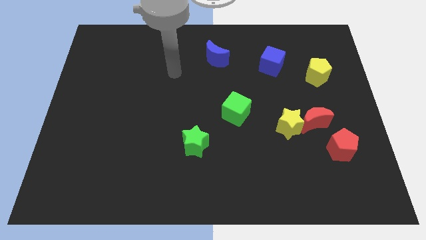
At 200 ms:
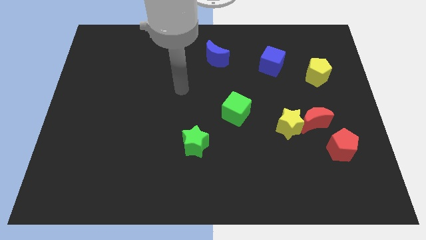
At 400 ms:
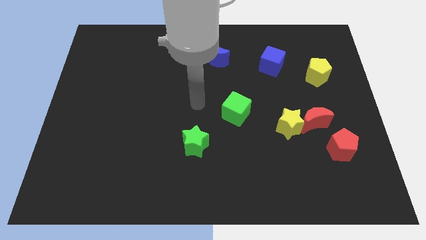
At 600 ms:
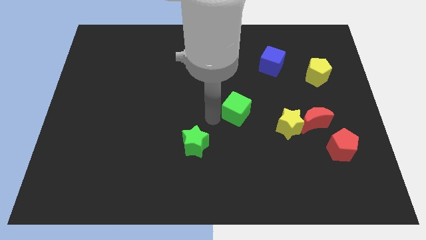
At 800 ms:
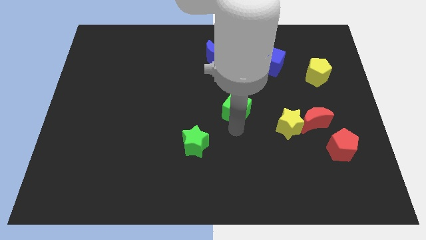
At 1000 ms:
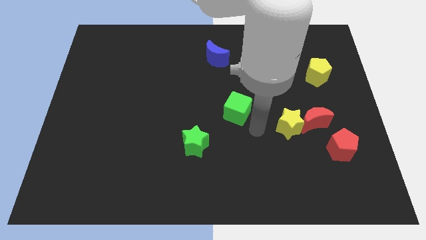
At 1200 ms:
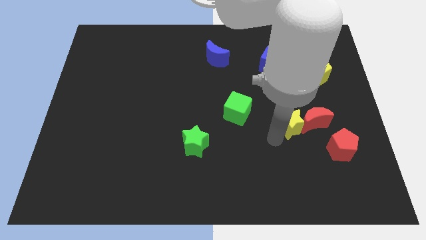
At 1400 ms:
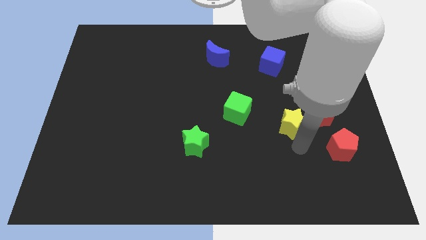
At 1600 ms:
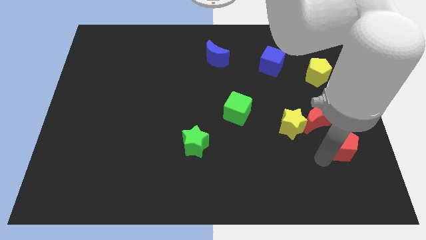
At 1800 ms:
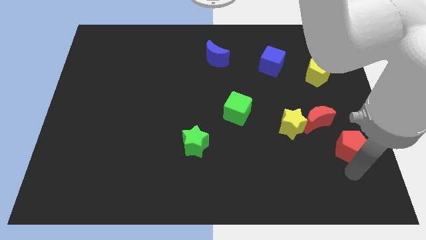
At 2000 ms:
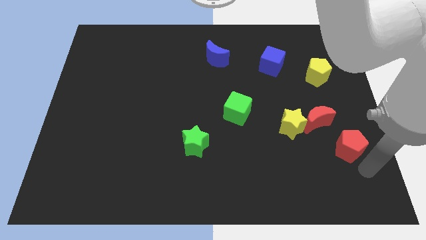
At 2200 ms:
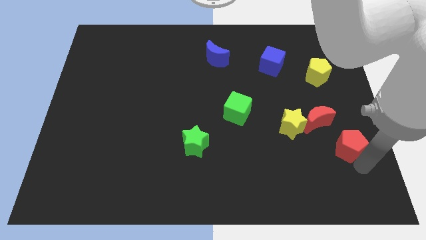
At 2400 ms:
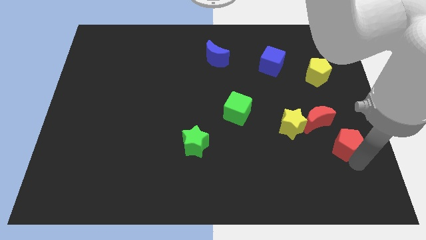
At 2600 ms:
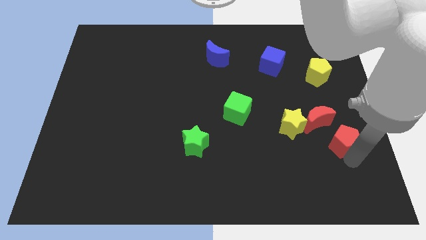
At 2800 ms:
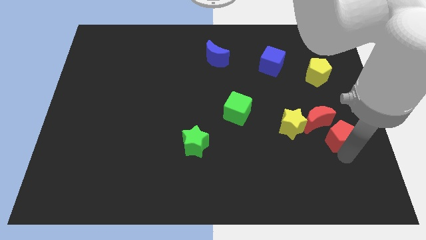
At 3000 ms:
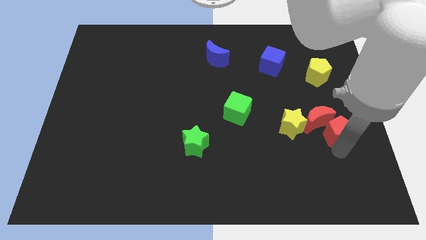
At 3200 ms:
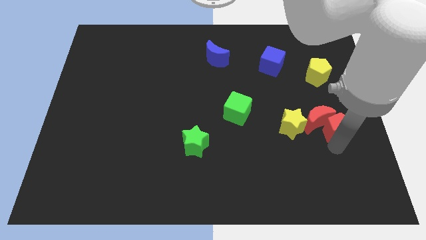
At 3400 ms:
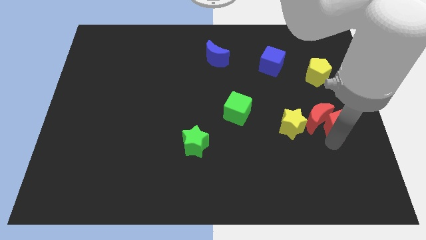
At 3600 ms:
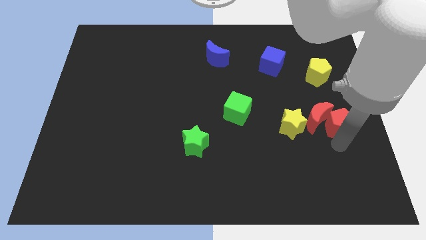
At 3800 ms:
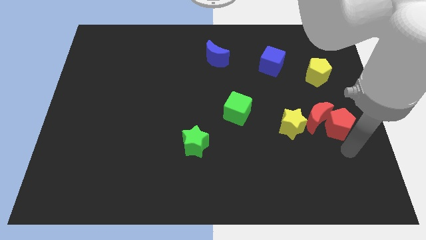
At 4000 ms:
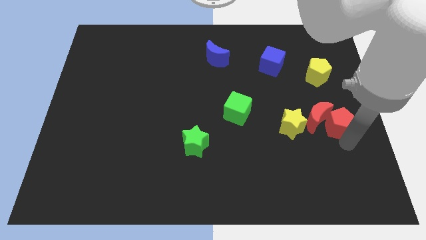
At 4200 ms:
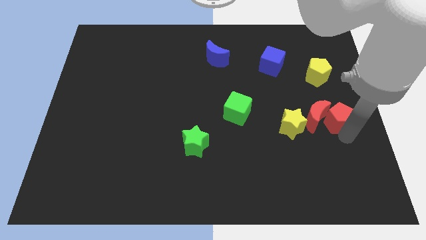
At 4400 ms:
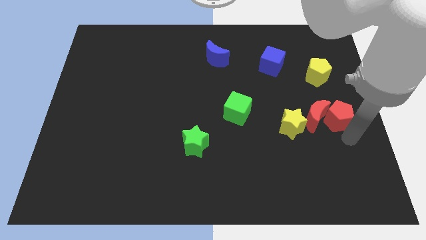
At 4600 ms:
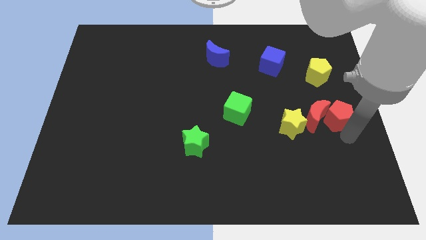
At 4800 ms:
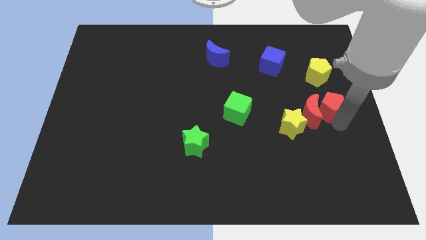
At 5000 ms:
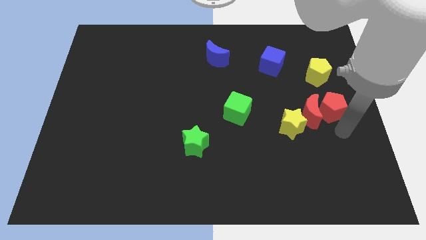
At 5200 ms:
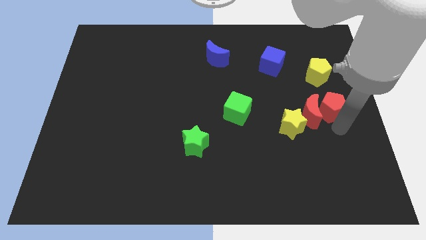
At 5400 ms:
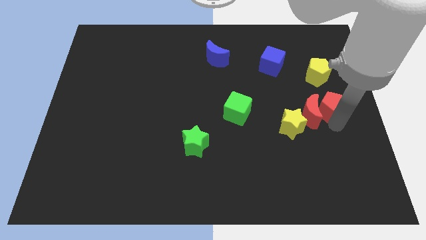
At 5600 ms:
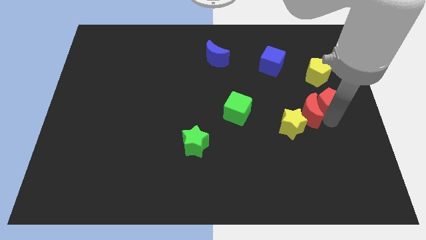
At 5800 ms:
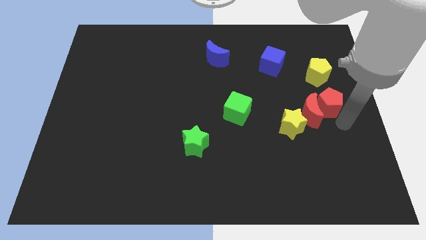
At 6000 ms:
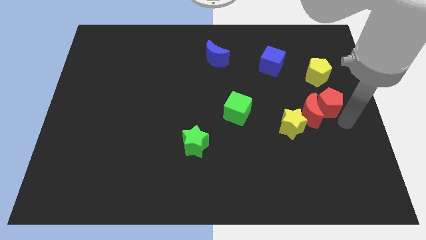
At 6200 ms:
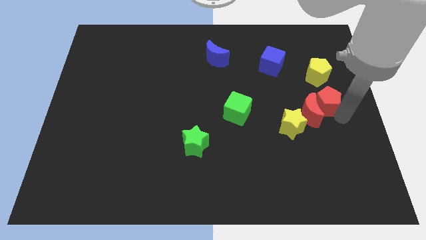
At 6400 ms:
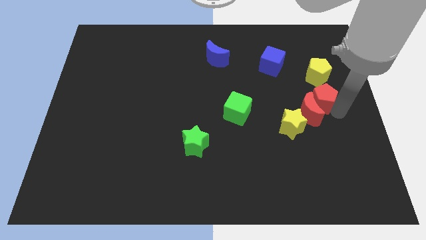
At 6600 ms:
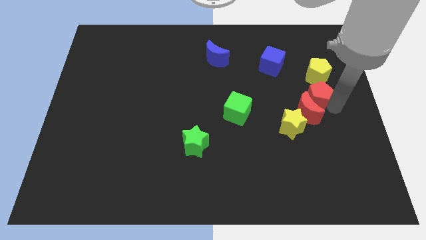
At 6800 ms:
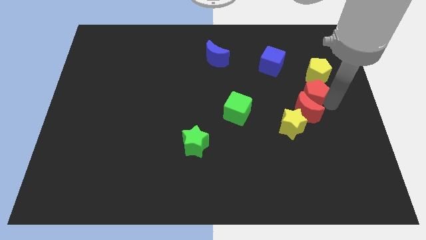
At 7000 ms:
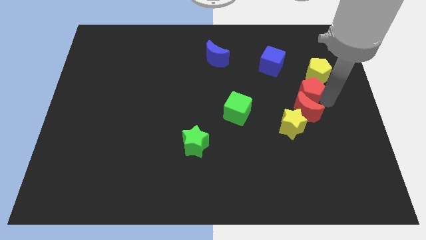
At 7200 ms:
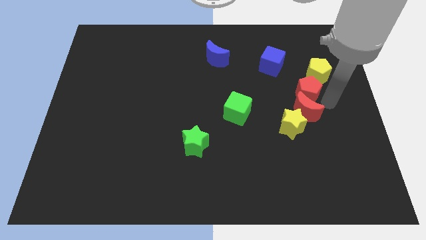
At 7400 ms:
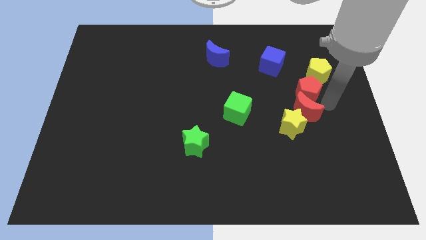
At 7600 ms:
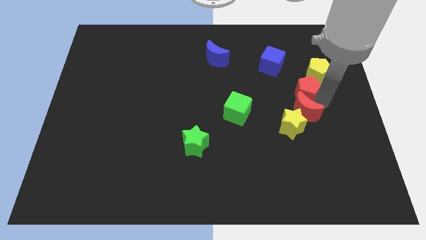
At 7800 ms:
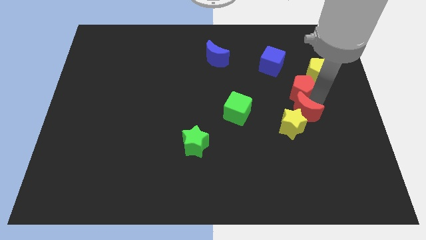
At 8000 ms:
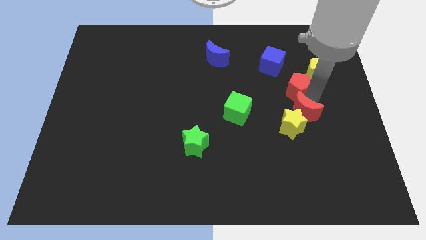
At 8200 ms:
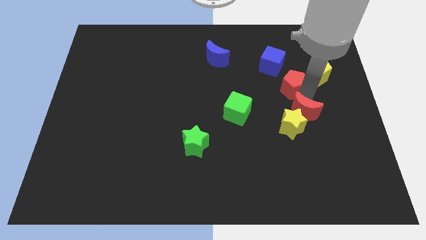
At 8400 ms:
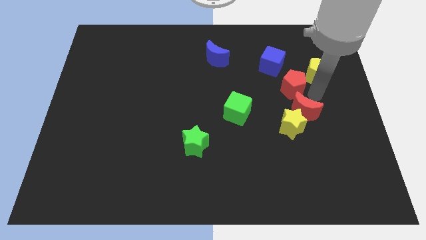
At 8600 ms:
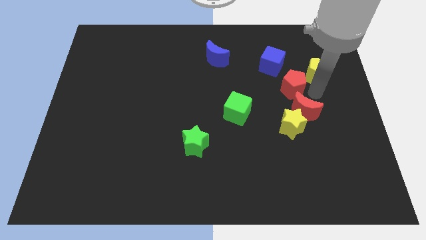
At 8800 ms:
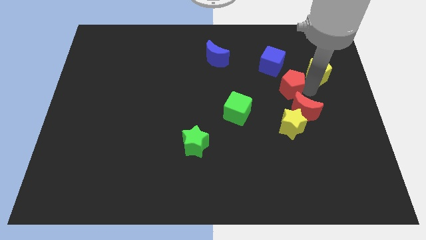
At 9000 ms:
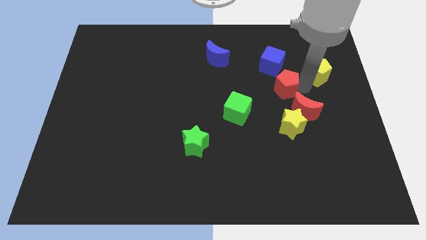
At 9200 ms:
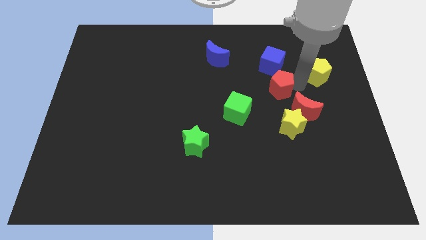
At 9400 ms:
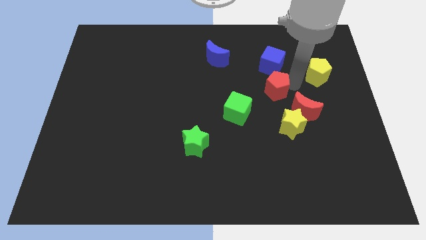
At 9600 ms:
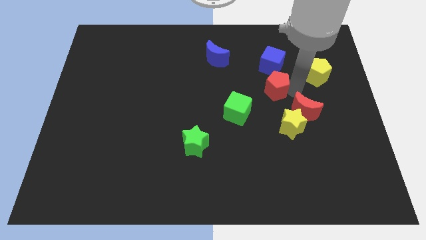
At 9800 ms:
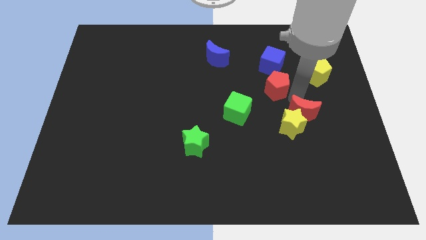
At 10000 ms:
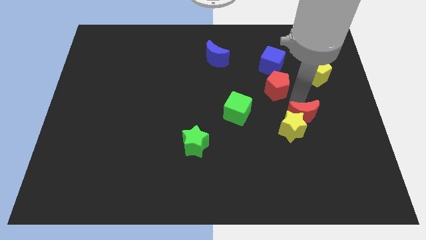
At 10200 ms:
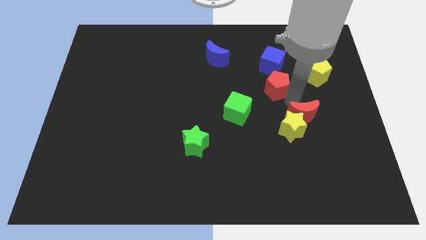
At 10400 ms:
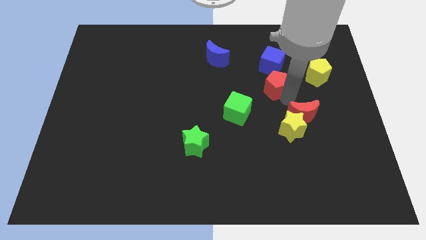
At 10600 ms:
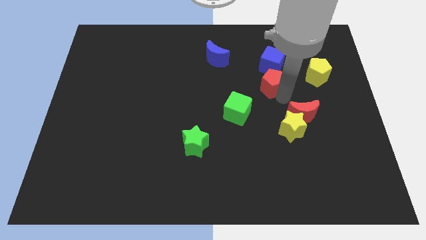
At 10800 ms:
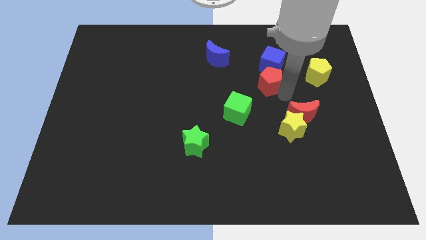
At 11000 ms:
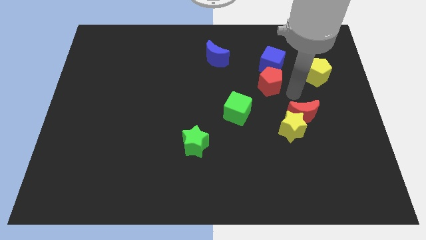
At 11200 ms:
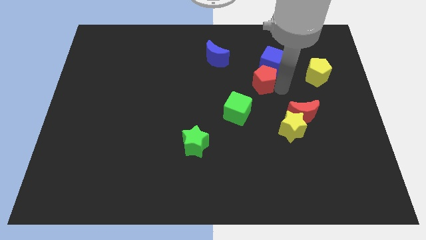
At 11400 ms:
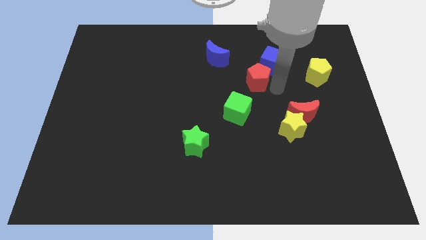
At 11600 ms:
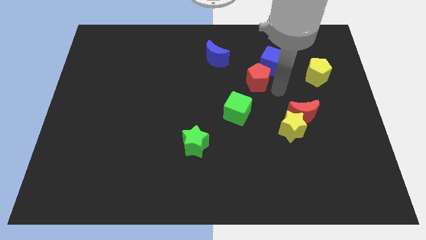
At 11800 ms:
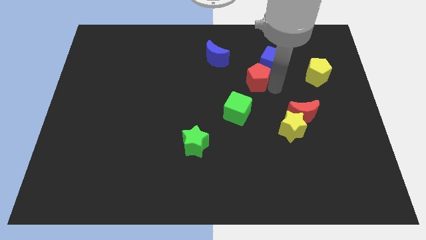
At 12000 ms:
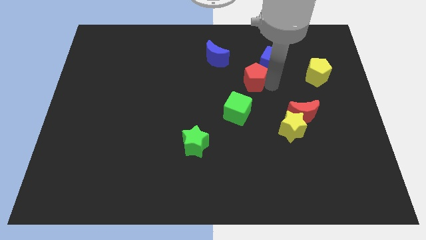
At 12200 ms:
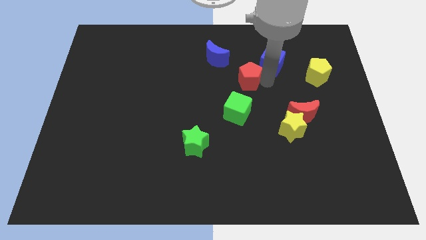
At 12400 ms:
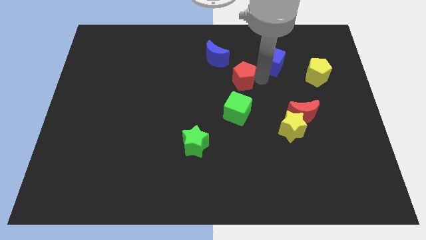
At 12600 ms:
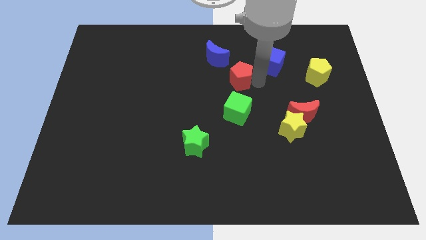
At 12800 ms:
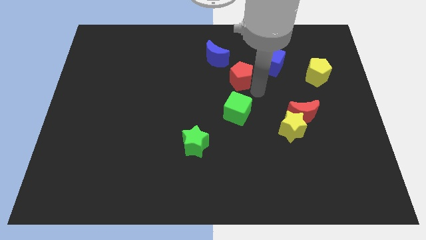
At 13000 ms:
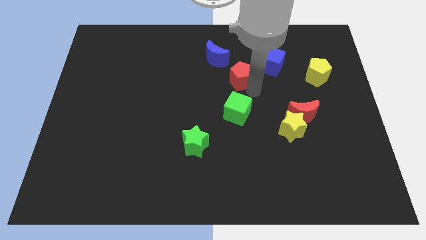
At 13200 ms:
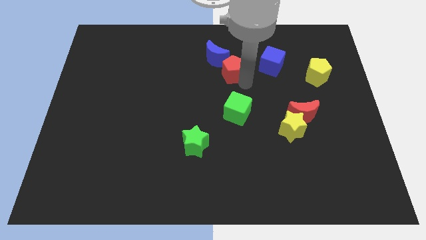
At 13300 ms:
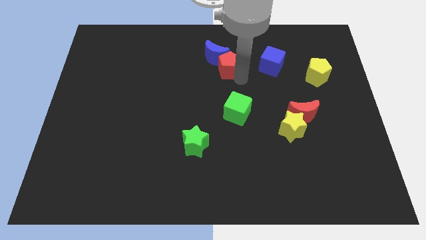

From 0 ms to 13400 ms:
put the red pentagon close to the blue moon

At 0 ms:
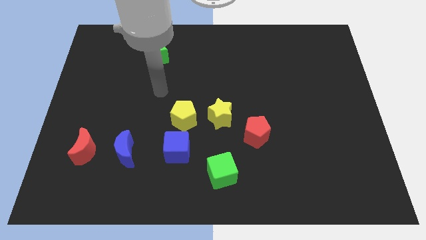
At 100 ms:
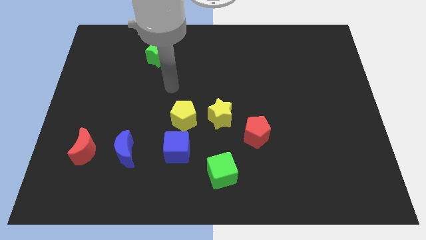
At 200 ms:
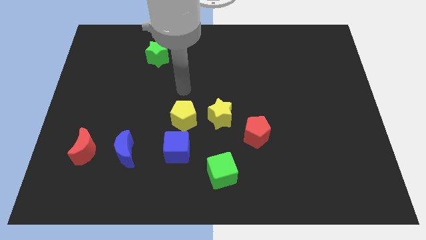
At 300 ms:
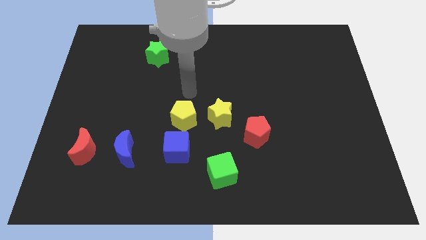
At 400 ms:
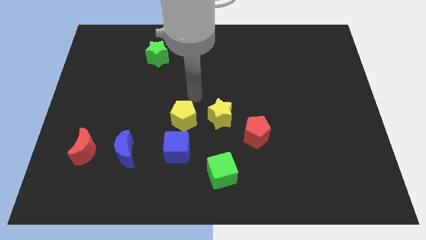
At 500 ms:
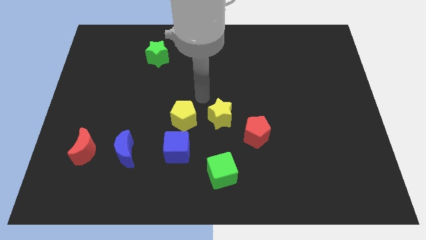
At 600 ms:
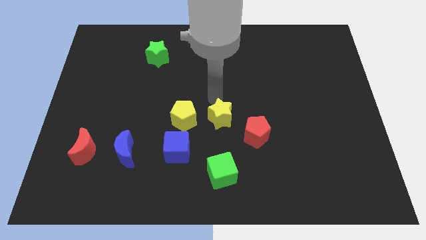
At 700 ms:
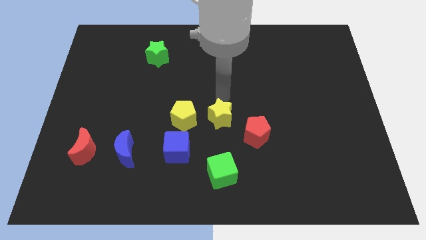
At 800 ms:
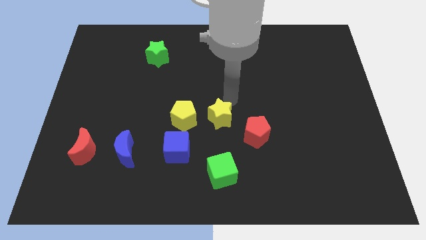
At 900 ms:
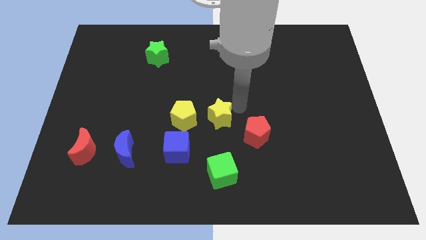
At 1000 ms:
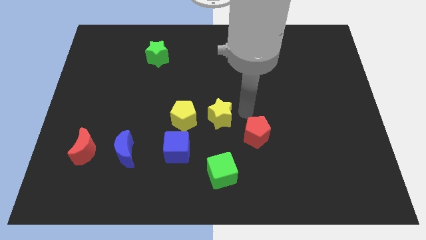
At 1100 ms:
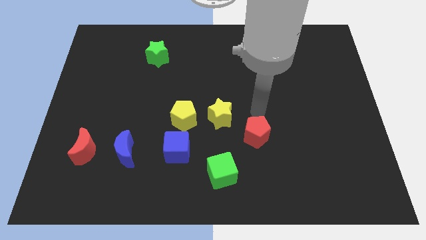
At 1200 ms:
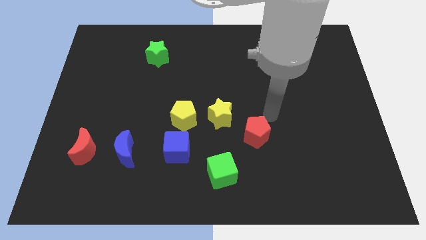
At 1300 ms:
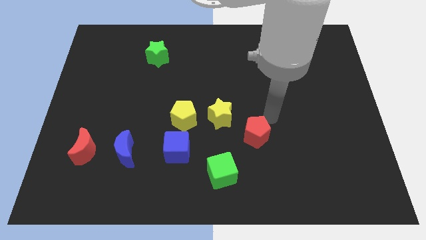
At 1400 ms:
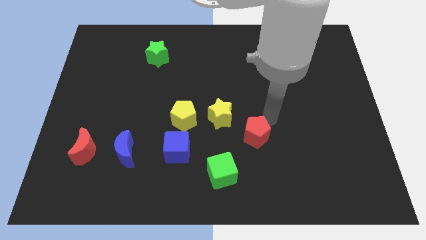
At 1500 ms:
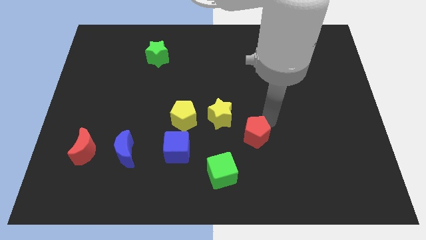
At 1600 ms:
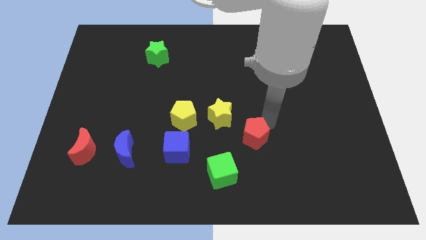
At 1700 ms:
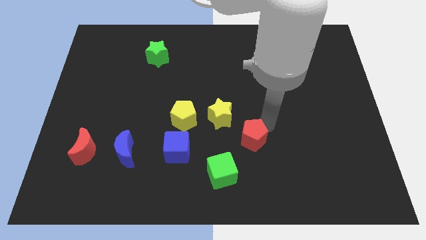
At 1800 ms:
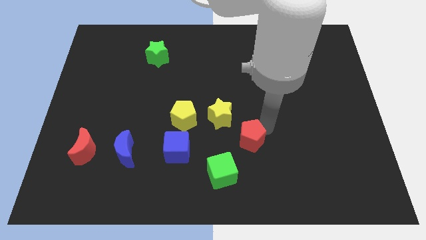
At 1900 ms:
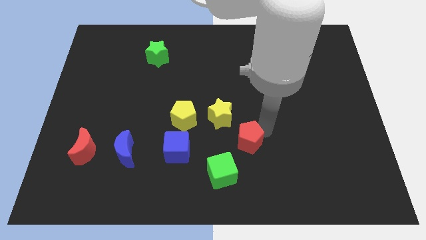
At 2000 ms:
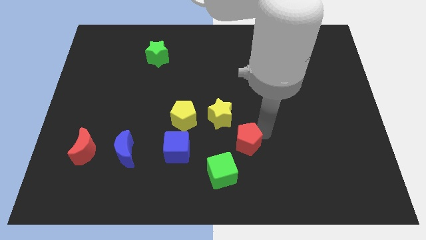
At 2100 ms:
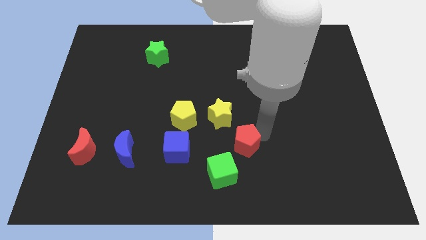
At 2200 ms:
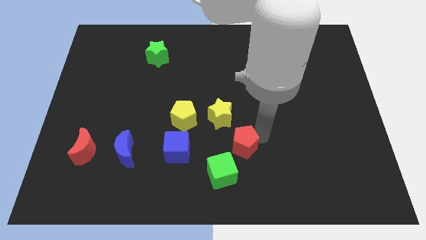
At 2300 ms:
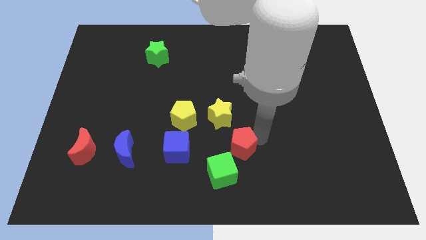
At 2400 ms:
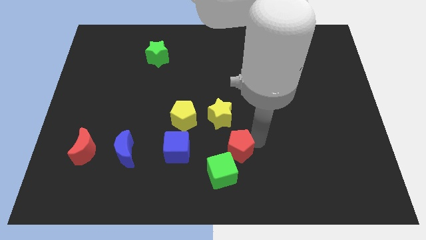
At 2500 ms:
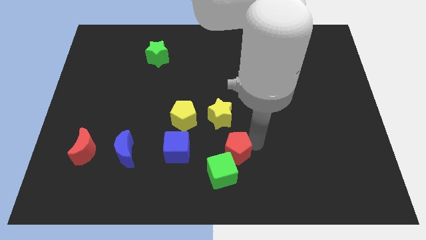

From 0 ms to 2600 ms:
slide the red pentagon close to the green cube
